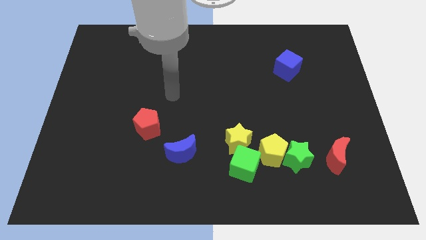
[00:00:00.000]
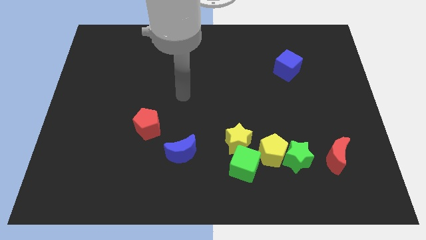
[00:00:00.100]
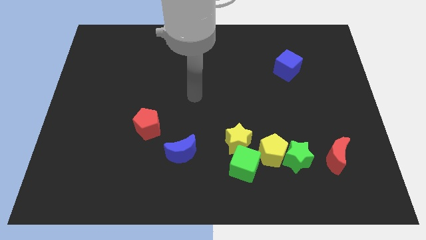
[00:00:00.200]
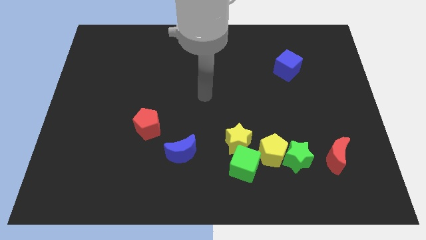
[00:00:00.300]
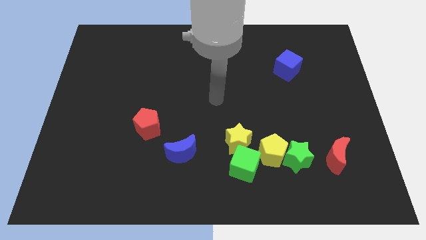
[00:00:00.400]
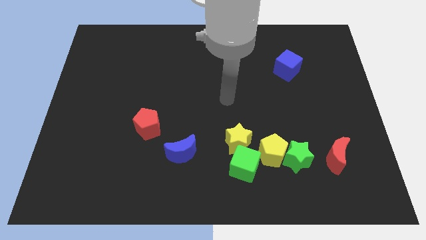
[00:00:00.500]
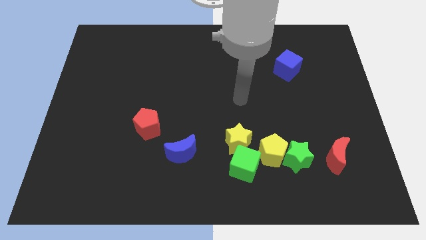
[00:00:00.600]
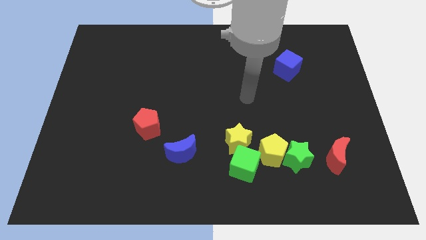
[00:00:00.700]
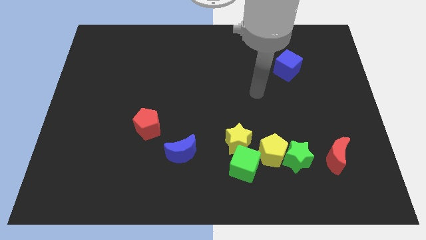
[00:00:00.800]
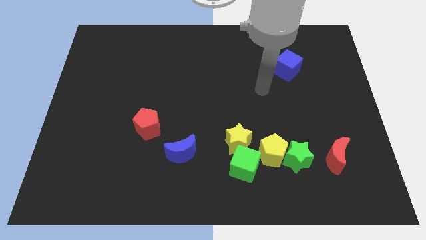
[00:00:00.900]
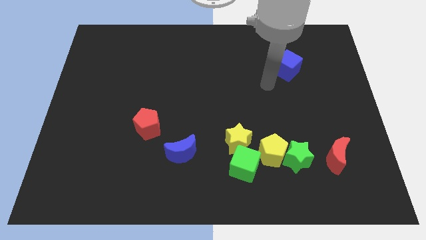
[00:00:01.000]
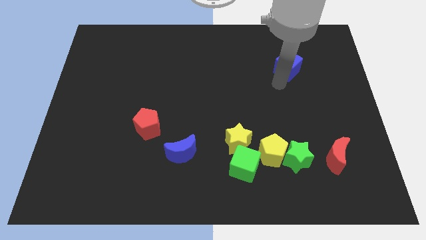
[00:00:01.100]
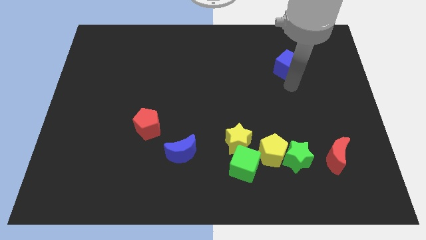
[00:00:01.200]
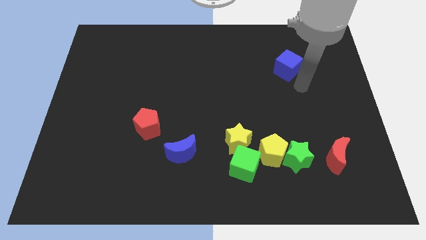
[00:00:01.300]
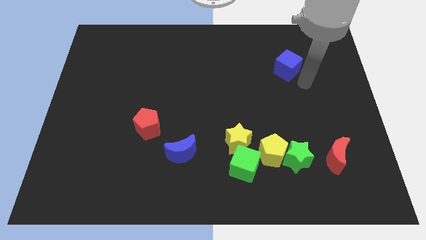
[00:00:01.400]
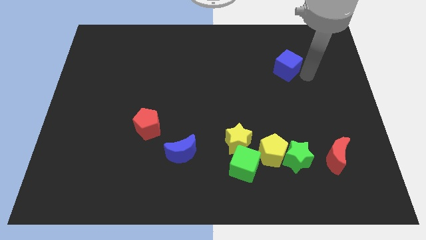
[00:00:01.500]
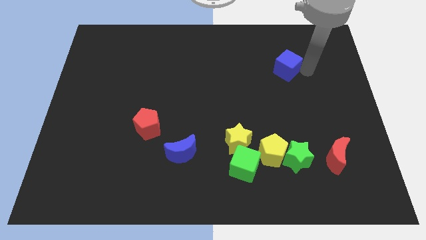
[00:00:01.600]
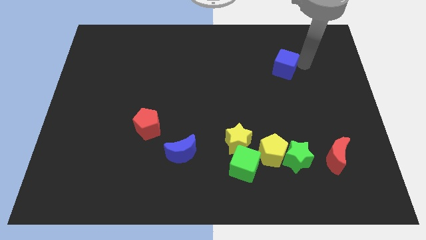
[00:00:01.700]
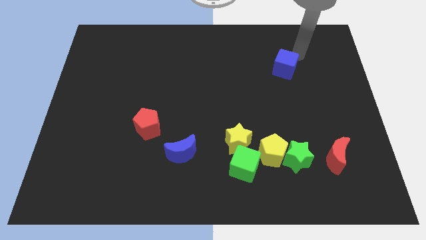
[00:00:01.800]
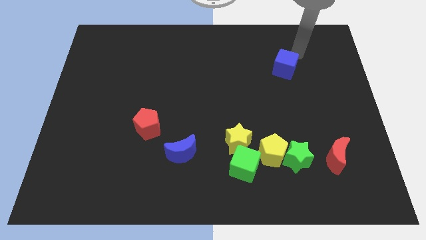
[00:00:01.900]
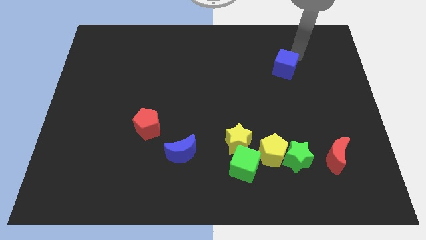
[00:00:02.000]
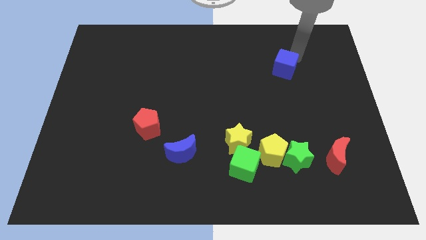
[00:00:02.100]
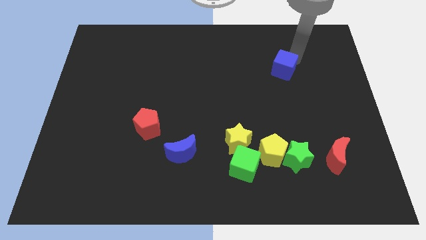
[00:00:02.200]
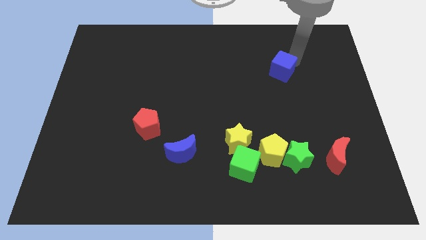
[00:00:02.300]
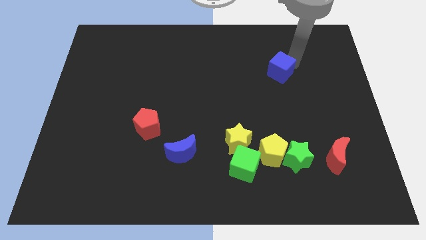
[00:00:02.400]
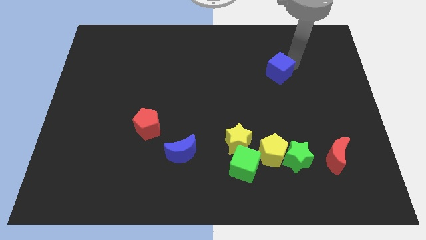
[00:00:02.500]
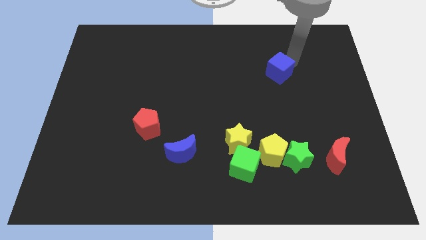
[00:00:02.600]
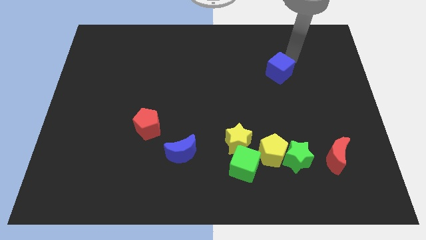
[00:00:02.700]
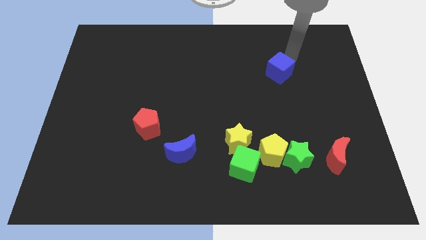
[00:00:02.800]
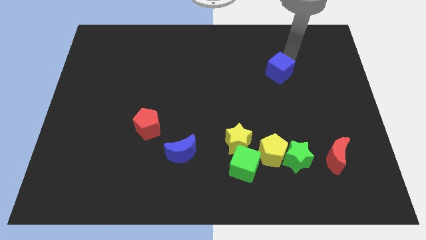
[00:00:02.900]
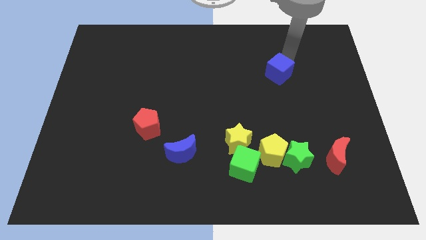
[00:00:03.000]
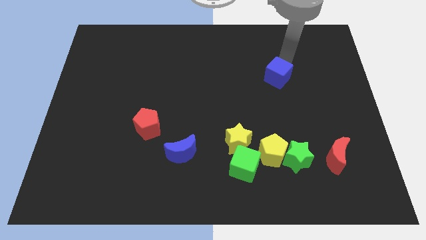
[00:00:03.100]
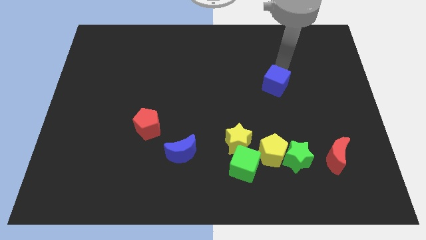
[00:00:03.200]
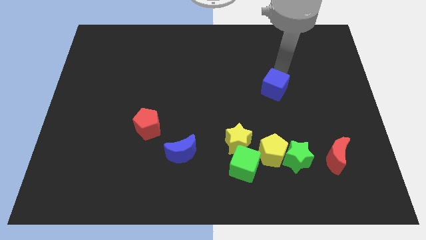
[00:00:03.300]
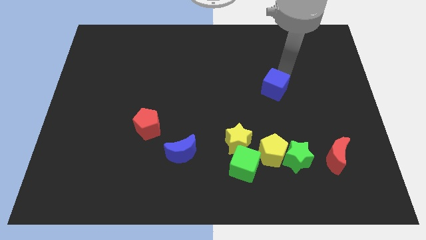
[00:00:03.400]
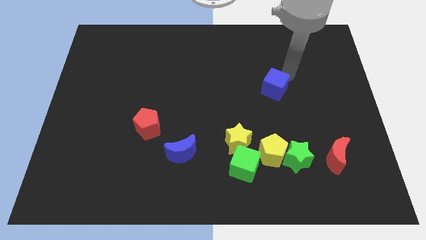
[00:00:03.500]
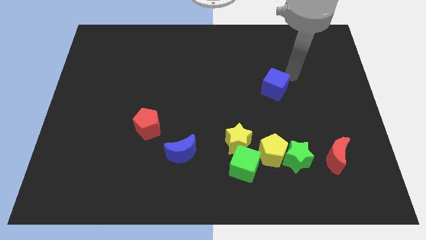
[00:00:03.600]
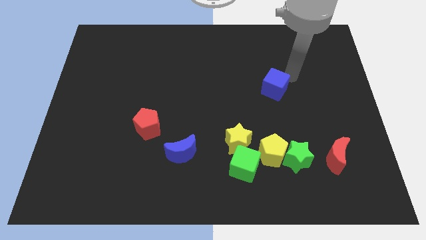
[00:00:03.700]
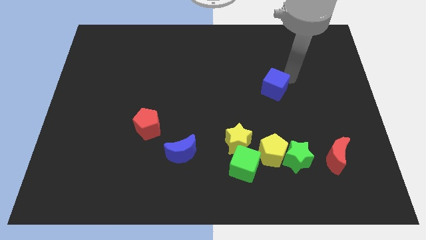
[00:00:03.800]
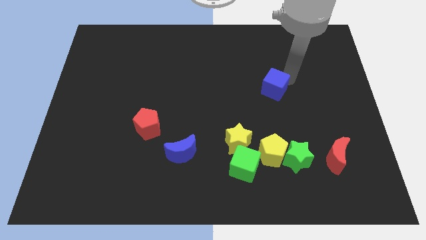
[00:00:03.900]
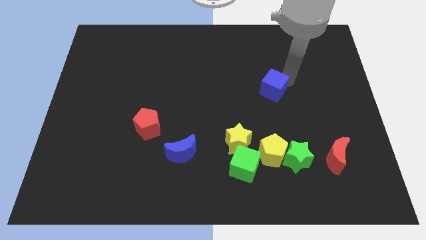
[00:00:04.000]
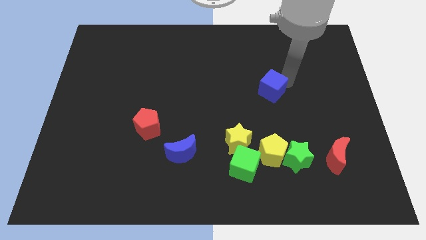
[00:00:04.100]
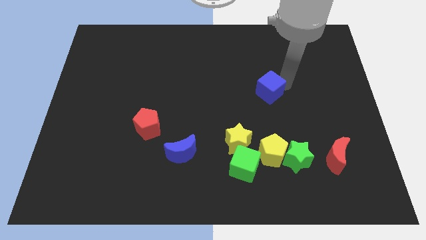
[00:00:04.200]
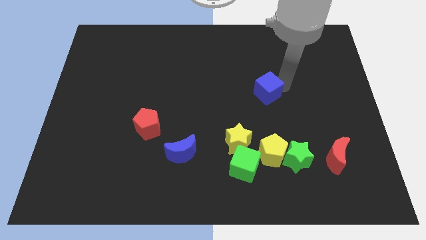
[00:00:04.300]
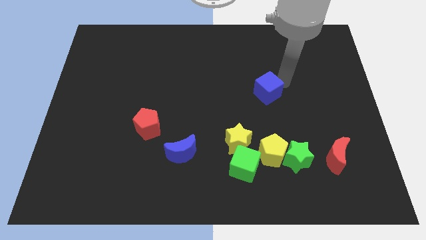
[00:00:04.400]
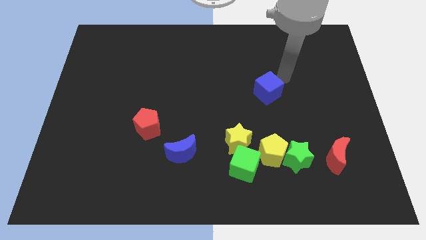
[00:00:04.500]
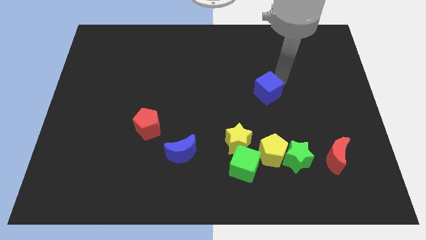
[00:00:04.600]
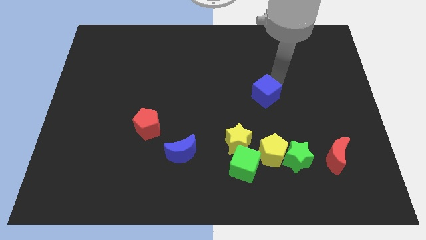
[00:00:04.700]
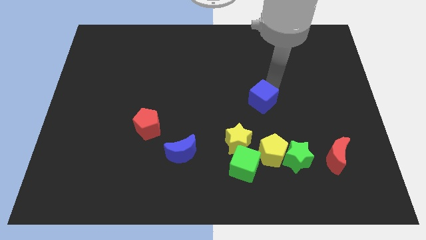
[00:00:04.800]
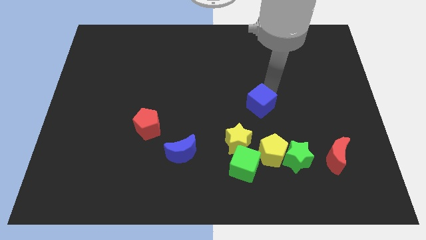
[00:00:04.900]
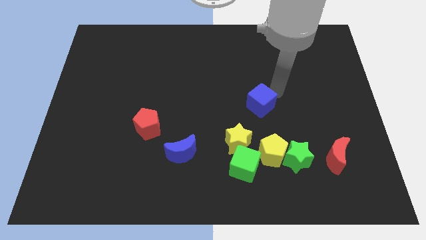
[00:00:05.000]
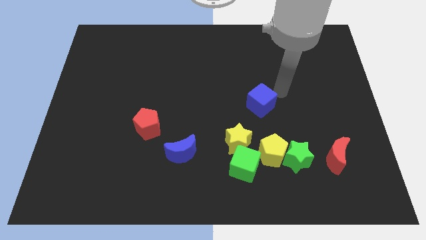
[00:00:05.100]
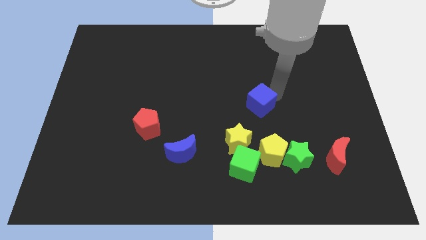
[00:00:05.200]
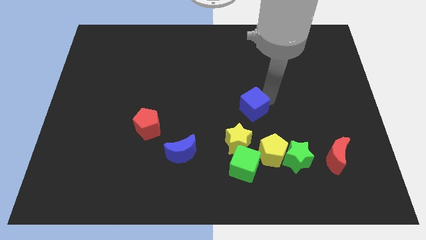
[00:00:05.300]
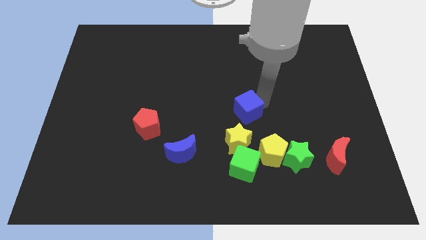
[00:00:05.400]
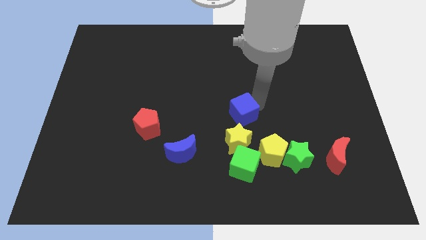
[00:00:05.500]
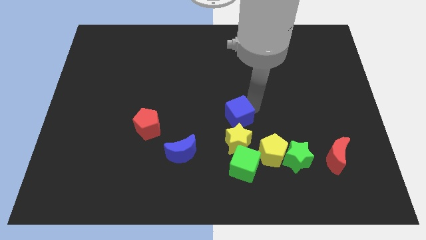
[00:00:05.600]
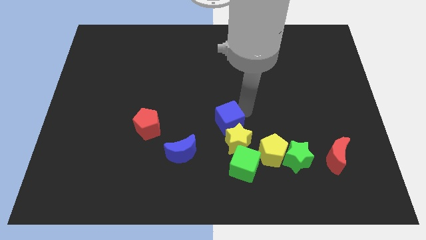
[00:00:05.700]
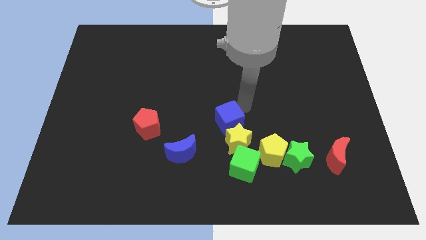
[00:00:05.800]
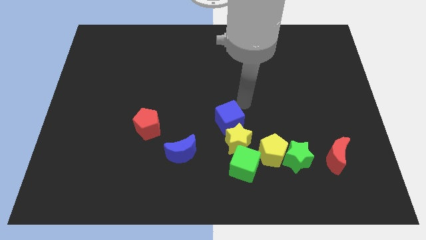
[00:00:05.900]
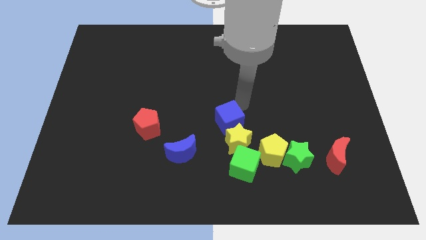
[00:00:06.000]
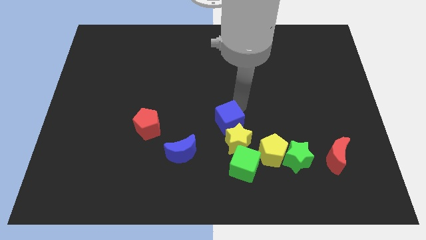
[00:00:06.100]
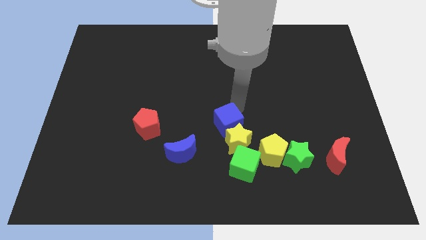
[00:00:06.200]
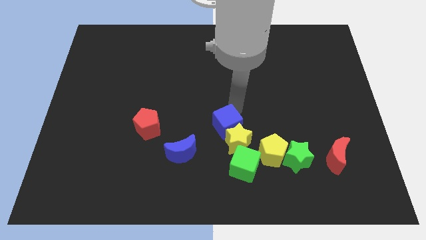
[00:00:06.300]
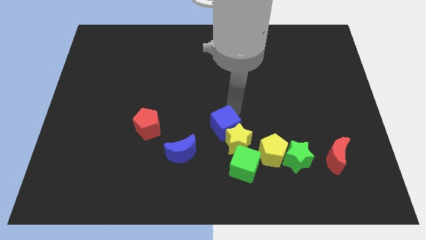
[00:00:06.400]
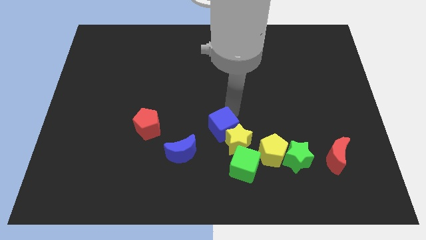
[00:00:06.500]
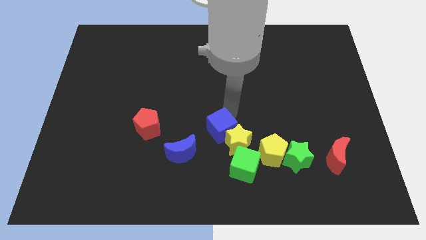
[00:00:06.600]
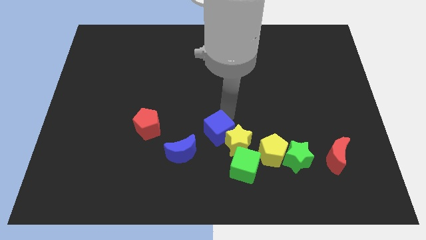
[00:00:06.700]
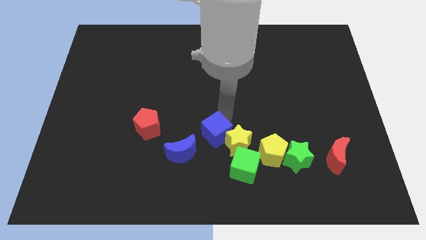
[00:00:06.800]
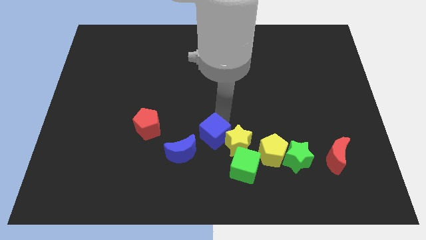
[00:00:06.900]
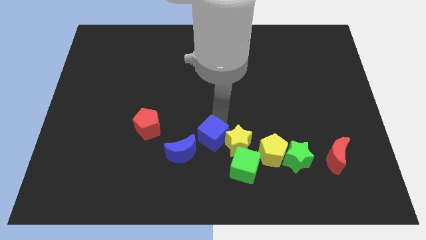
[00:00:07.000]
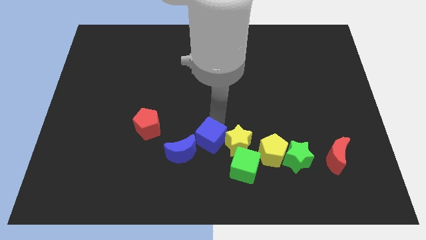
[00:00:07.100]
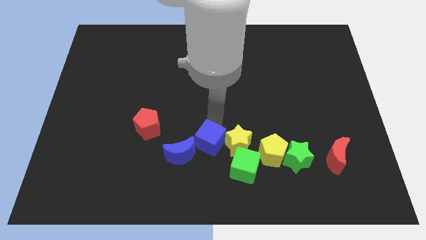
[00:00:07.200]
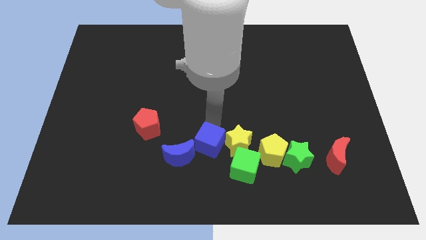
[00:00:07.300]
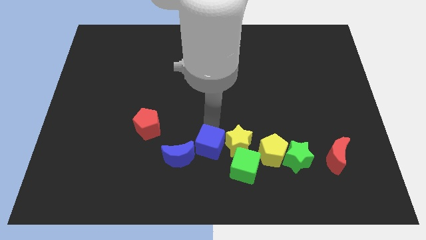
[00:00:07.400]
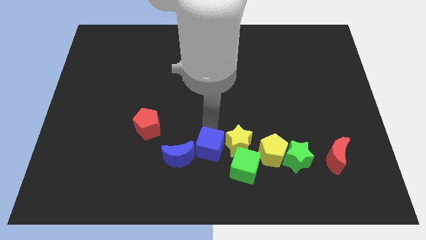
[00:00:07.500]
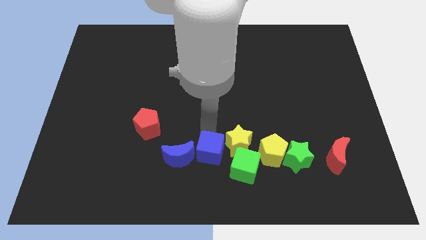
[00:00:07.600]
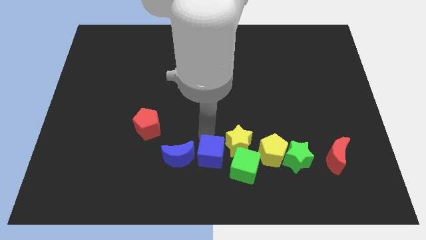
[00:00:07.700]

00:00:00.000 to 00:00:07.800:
put the blue cube to the bottom
